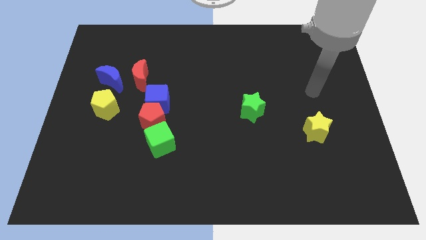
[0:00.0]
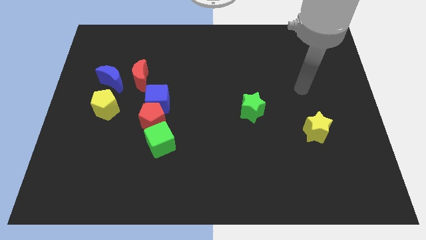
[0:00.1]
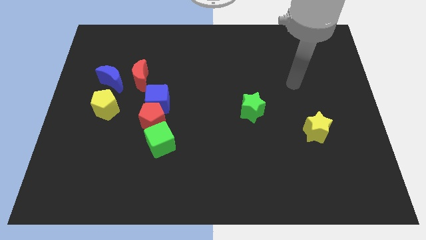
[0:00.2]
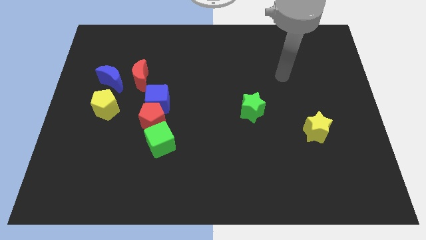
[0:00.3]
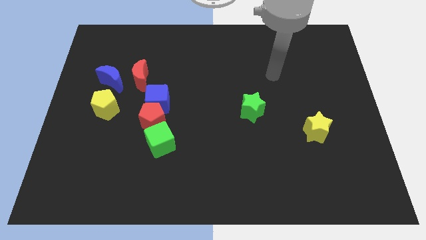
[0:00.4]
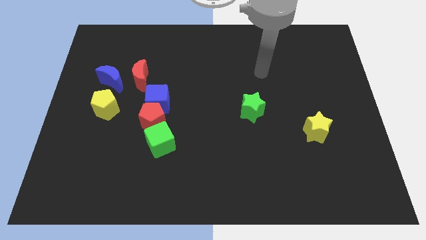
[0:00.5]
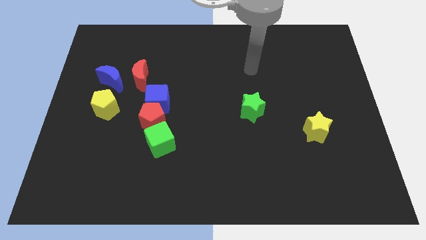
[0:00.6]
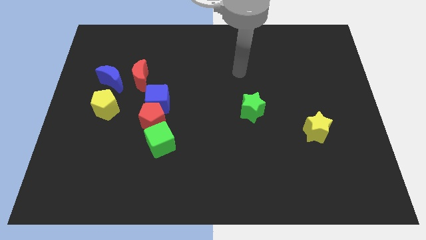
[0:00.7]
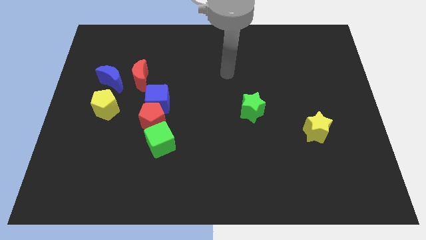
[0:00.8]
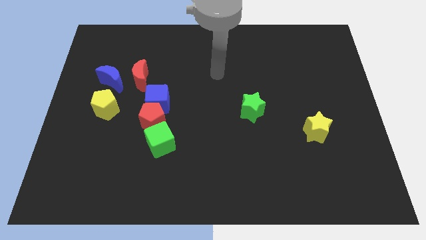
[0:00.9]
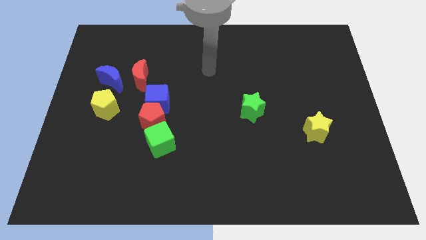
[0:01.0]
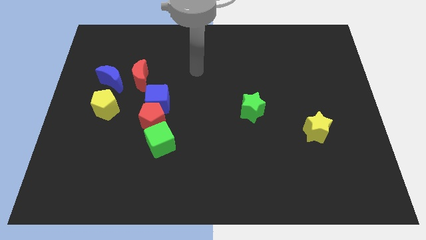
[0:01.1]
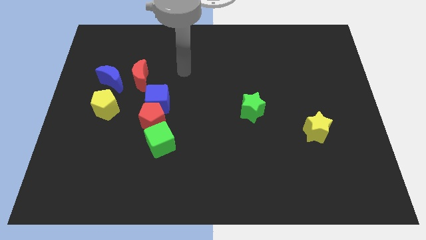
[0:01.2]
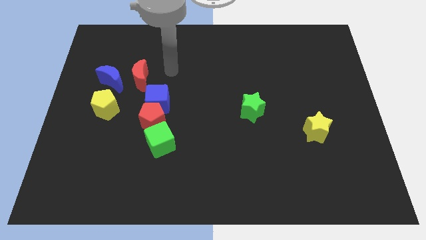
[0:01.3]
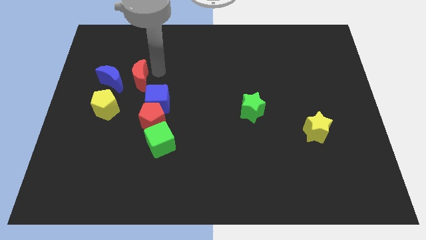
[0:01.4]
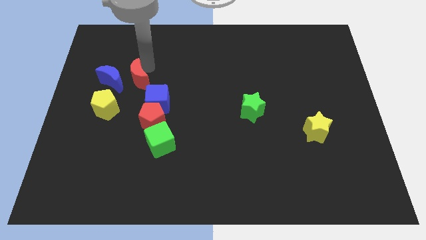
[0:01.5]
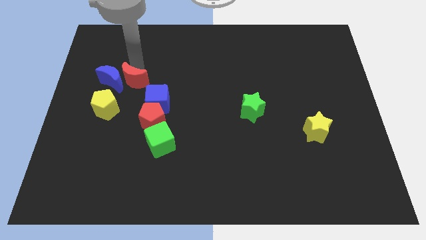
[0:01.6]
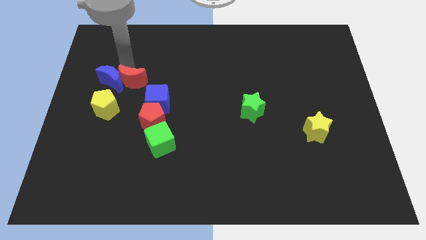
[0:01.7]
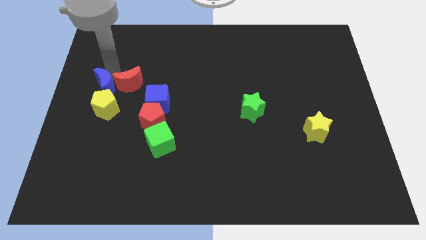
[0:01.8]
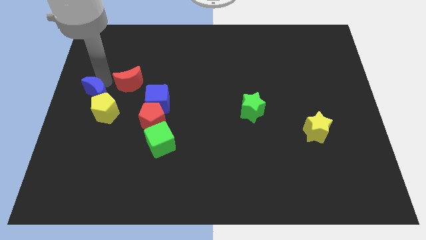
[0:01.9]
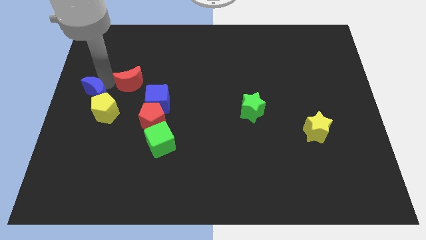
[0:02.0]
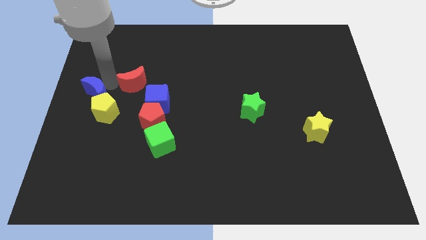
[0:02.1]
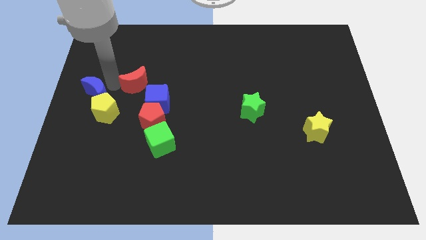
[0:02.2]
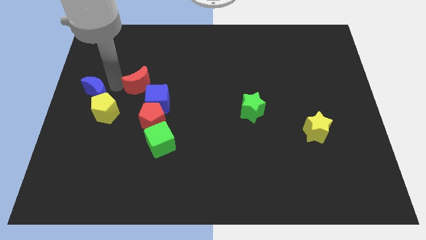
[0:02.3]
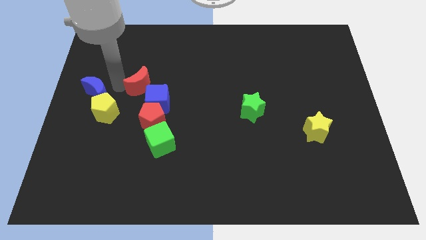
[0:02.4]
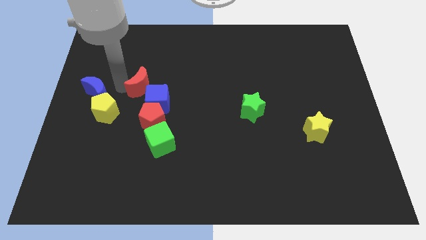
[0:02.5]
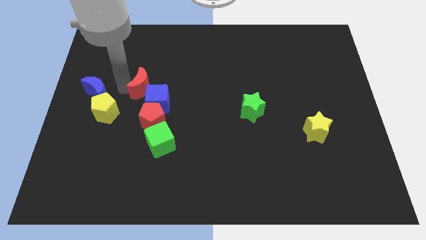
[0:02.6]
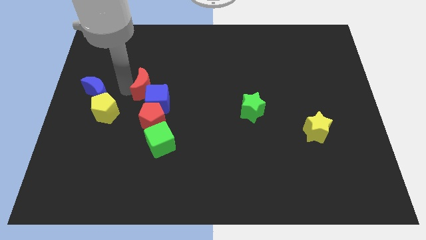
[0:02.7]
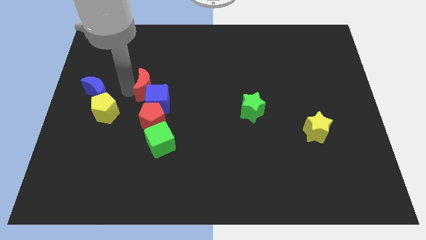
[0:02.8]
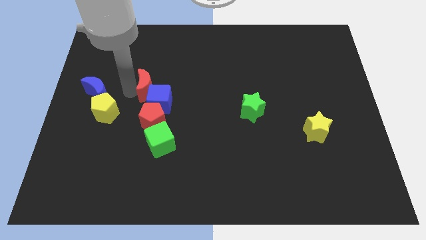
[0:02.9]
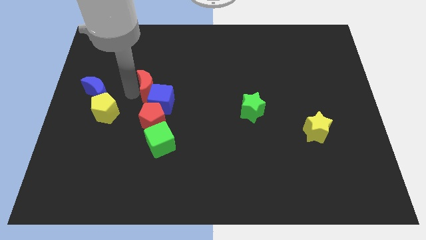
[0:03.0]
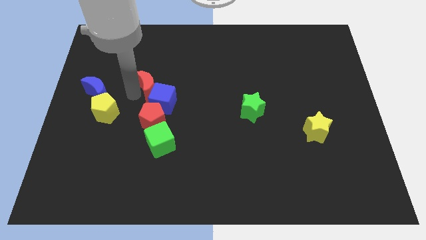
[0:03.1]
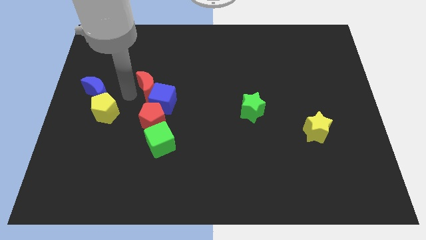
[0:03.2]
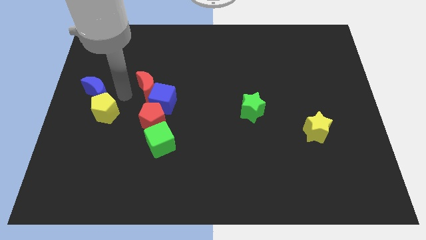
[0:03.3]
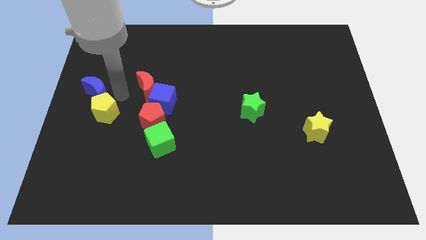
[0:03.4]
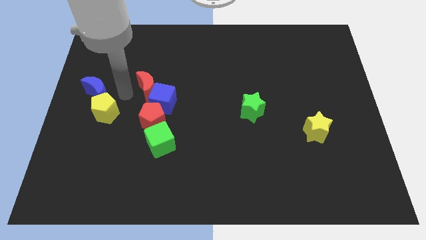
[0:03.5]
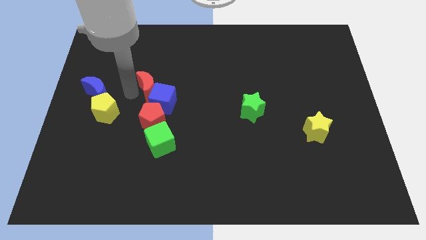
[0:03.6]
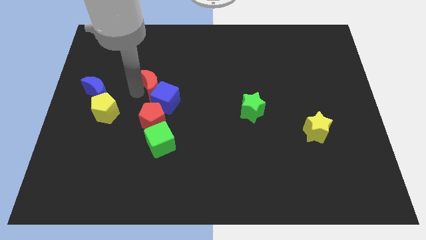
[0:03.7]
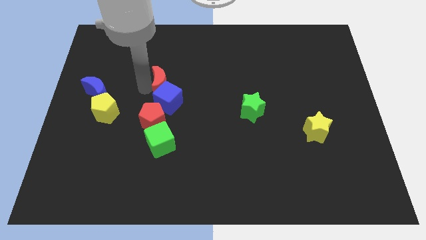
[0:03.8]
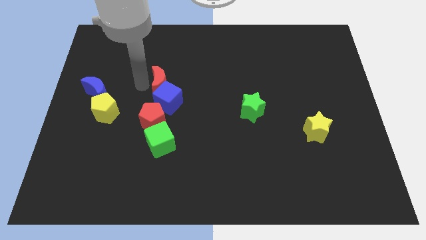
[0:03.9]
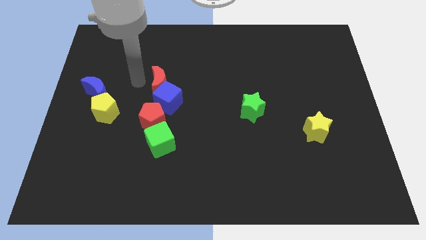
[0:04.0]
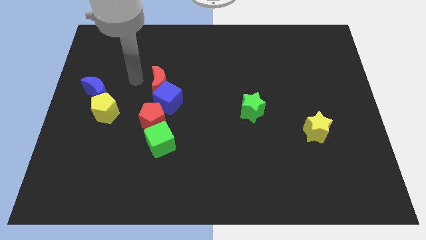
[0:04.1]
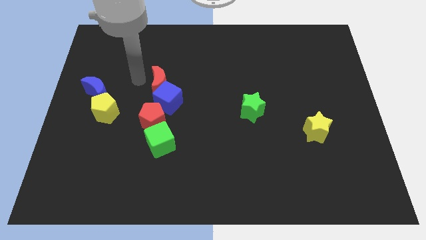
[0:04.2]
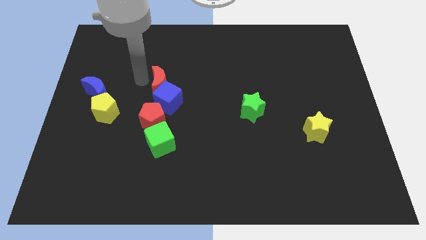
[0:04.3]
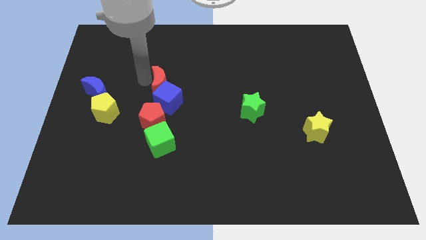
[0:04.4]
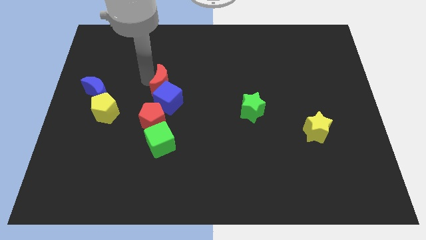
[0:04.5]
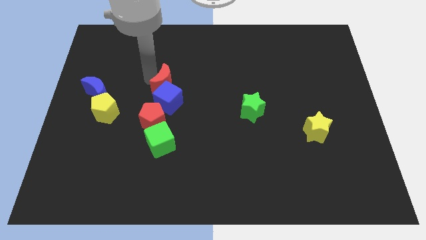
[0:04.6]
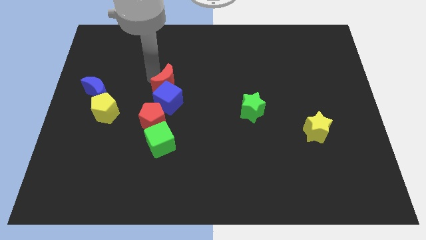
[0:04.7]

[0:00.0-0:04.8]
move the red moon to the middle

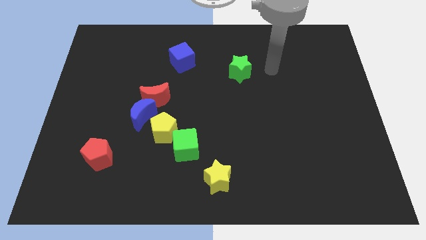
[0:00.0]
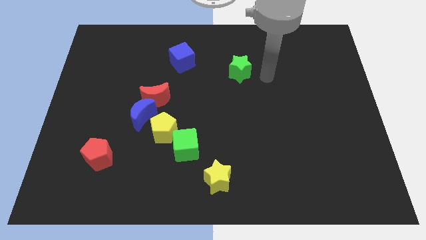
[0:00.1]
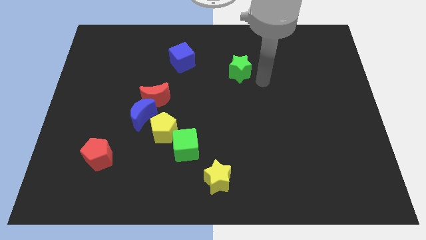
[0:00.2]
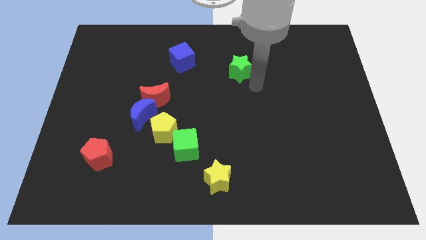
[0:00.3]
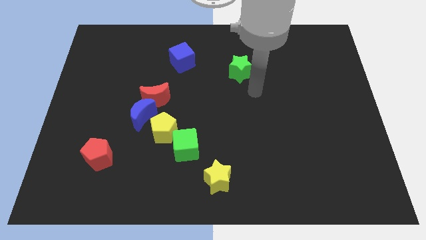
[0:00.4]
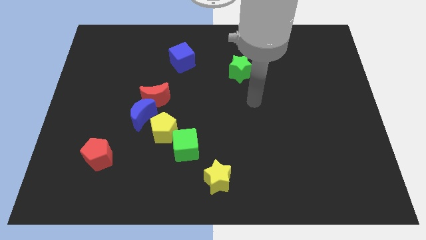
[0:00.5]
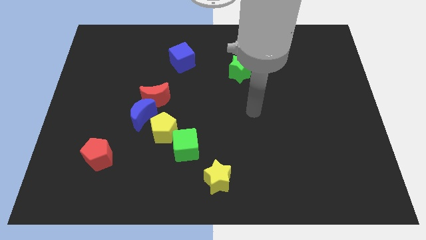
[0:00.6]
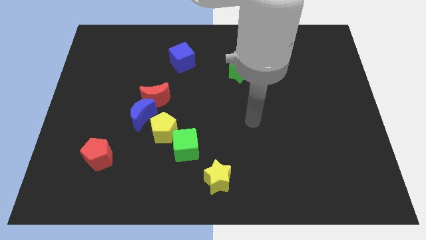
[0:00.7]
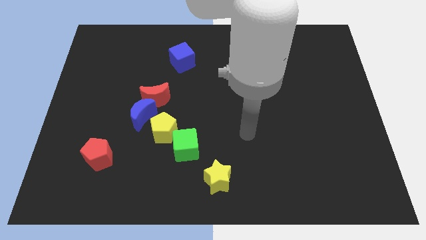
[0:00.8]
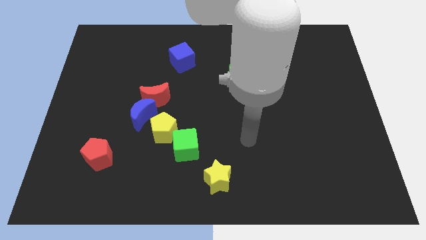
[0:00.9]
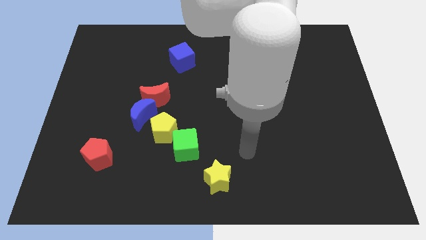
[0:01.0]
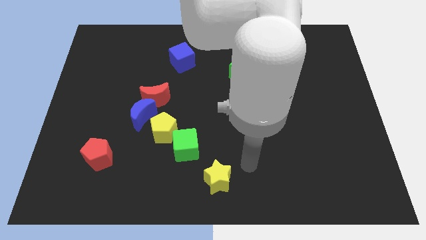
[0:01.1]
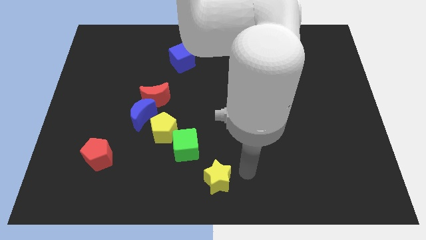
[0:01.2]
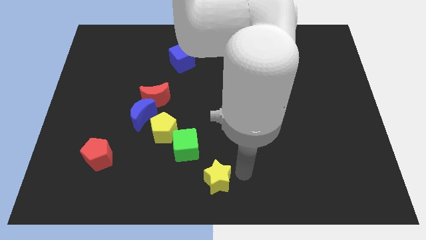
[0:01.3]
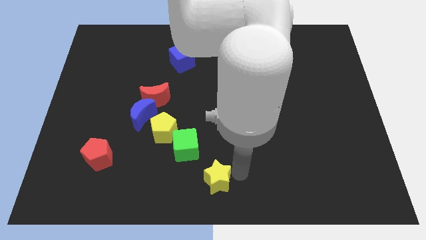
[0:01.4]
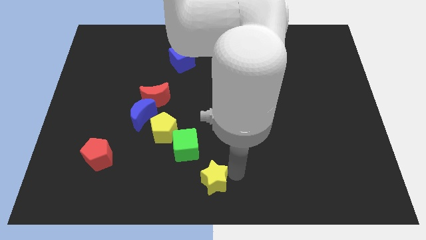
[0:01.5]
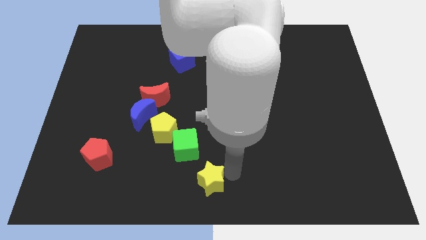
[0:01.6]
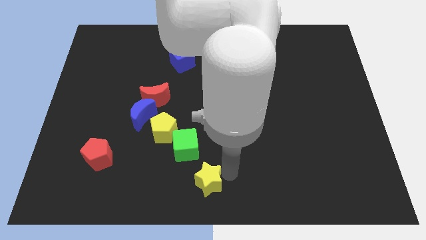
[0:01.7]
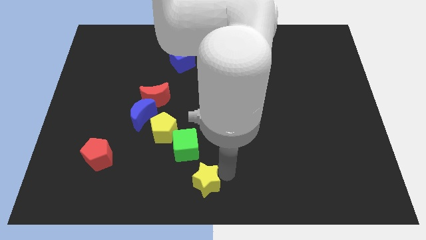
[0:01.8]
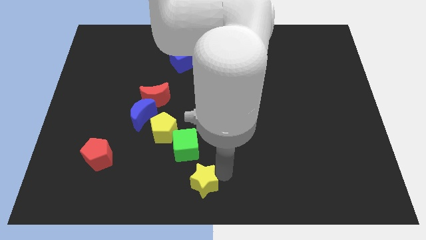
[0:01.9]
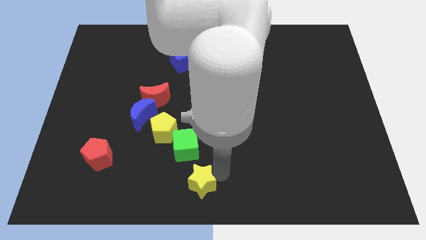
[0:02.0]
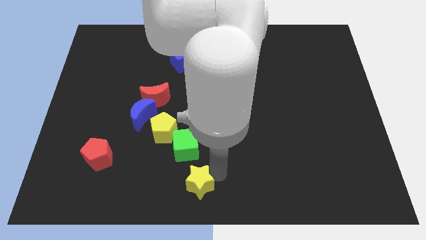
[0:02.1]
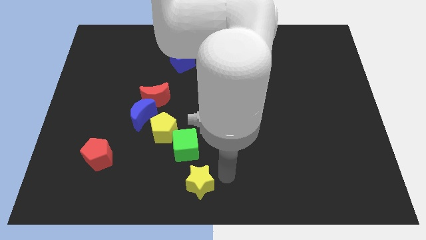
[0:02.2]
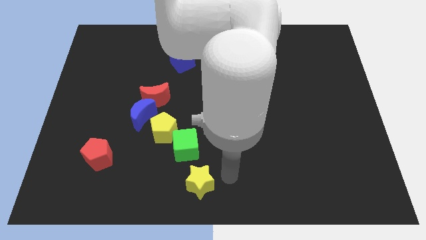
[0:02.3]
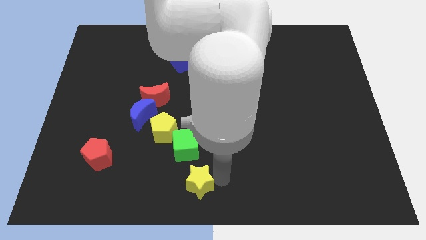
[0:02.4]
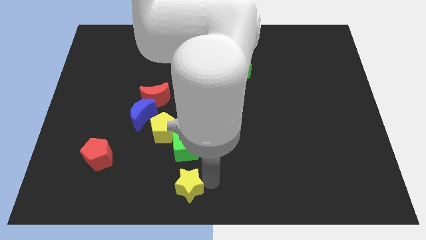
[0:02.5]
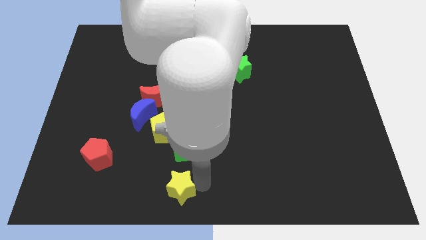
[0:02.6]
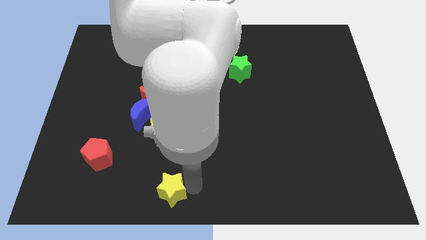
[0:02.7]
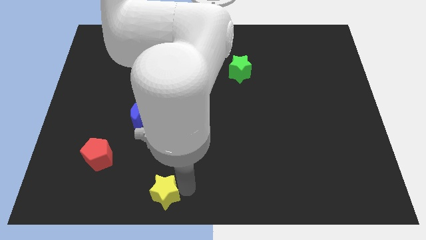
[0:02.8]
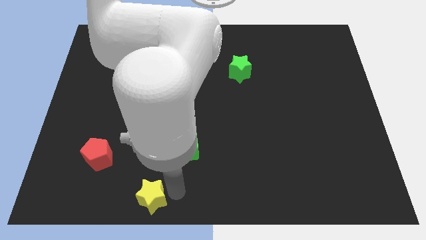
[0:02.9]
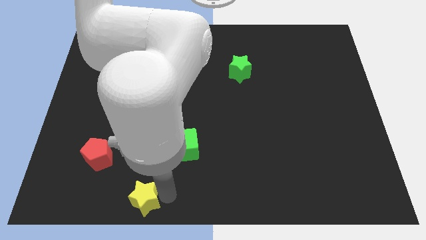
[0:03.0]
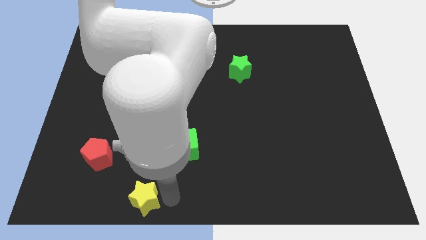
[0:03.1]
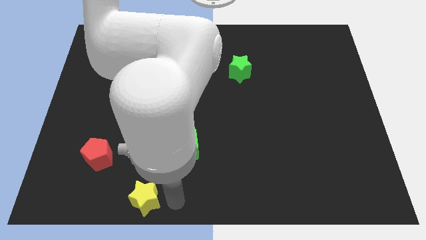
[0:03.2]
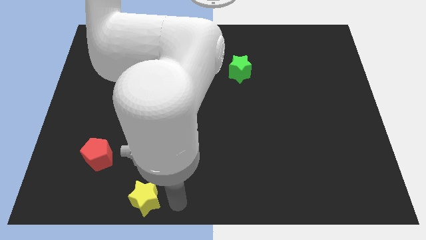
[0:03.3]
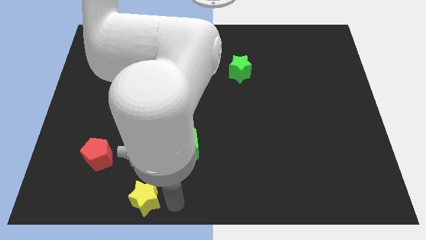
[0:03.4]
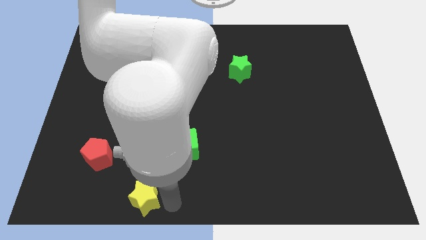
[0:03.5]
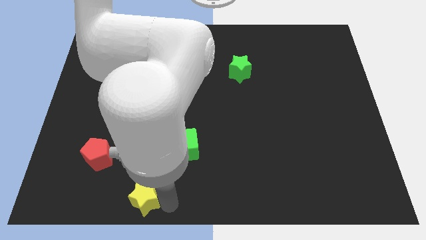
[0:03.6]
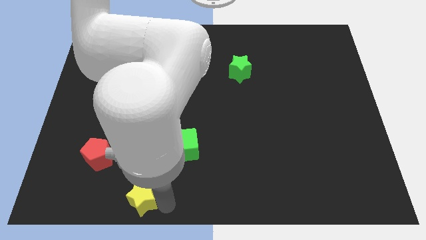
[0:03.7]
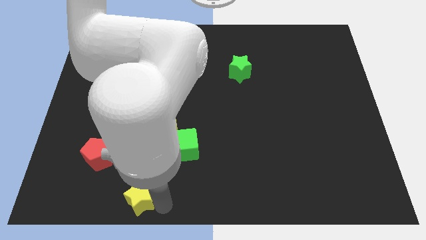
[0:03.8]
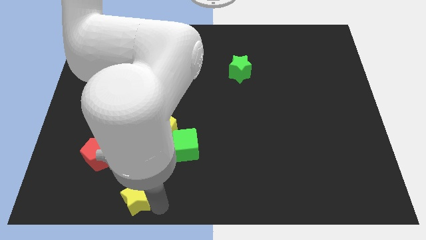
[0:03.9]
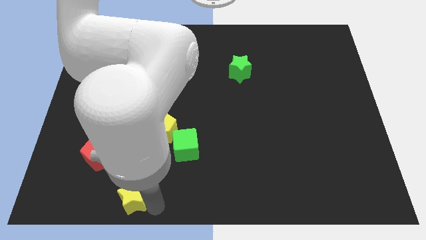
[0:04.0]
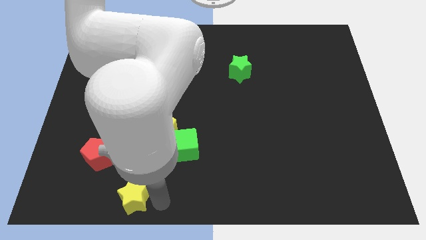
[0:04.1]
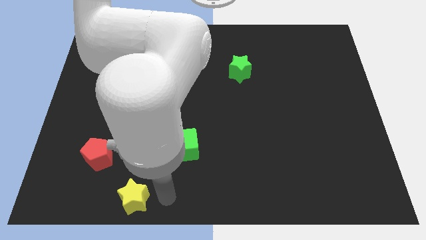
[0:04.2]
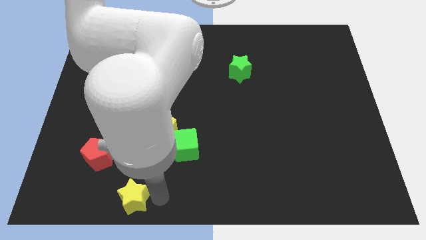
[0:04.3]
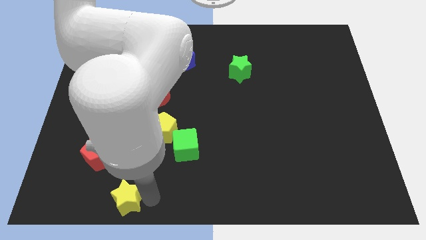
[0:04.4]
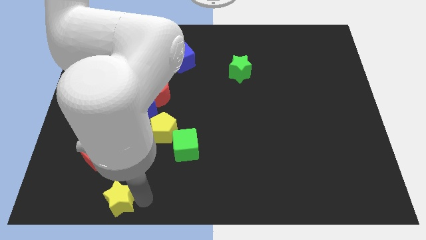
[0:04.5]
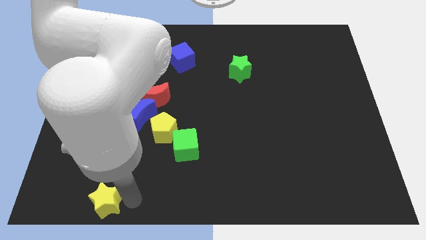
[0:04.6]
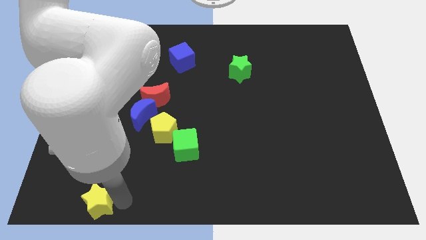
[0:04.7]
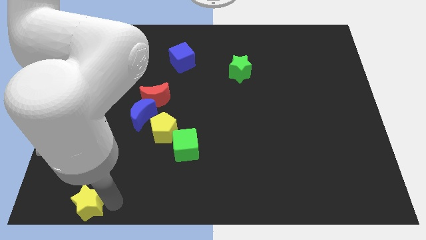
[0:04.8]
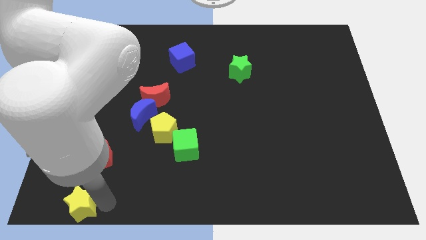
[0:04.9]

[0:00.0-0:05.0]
move the yellow star to the bottom left
